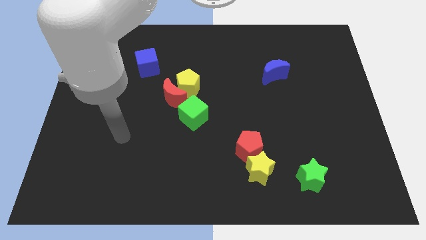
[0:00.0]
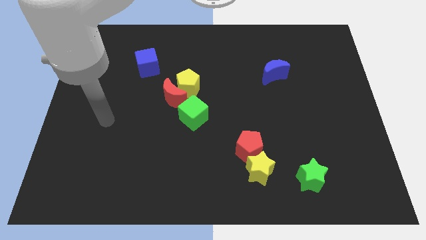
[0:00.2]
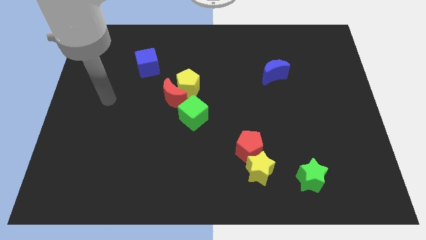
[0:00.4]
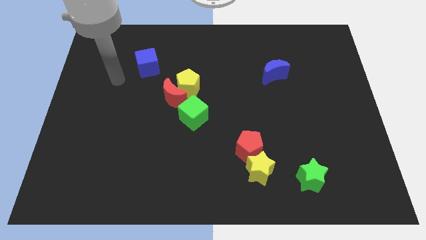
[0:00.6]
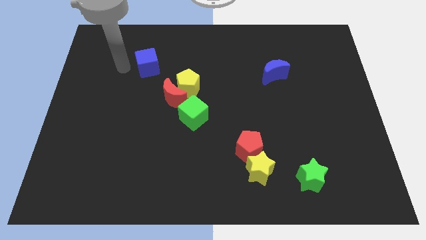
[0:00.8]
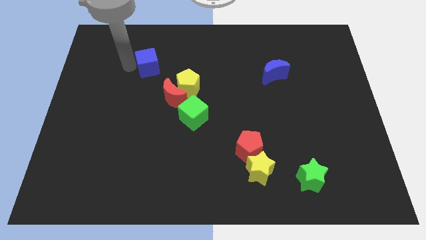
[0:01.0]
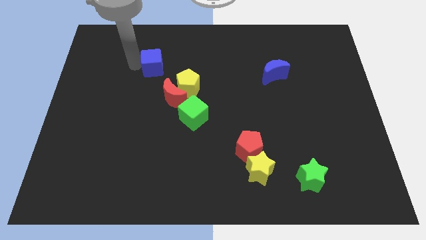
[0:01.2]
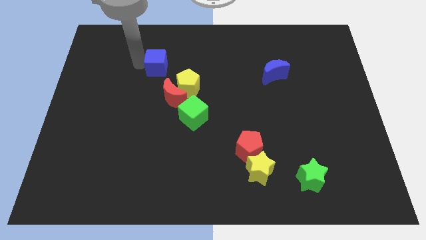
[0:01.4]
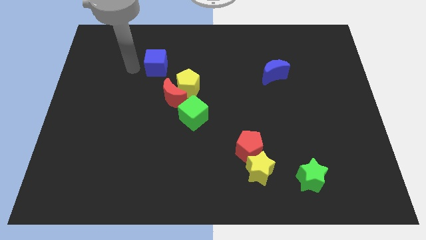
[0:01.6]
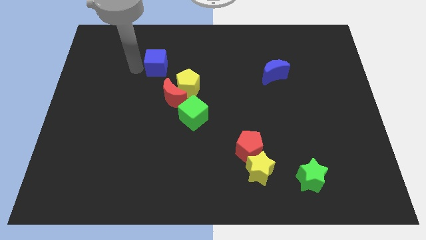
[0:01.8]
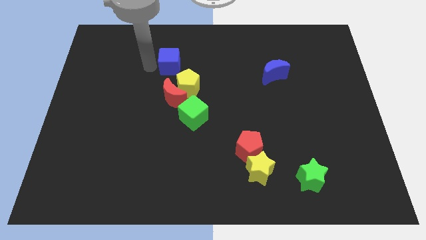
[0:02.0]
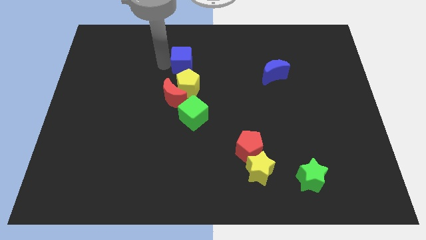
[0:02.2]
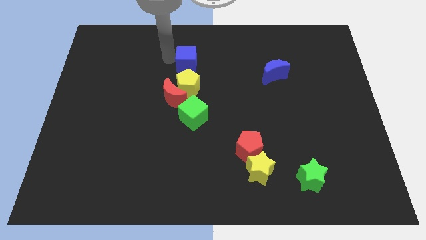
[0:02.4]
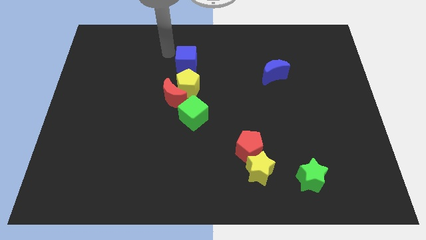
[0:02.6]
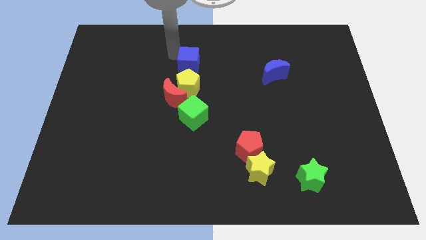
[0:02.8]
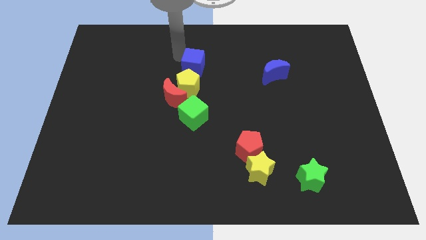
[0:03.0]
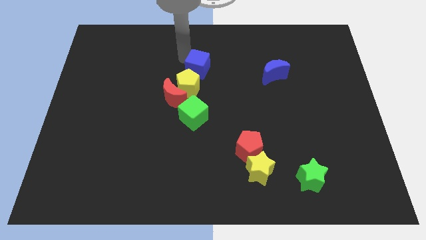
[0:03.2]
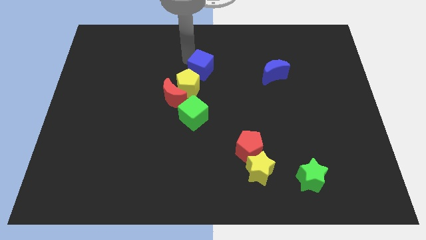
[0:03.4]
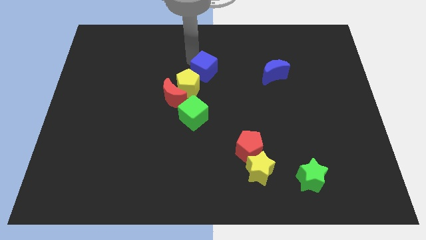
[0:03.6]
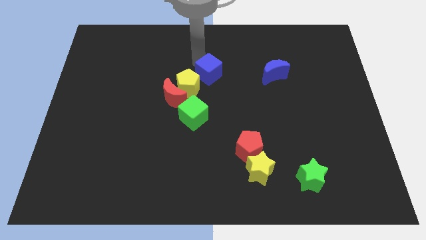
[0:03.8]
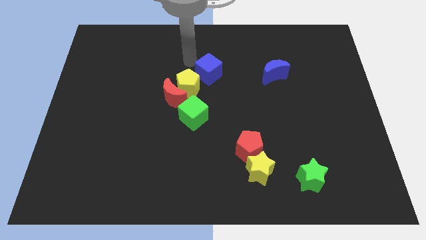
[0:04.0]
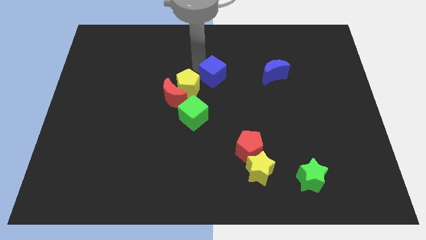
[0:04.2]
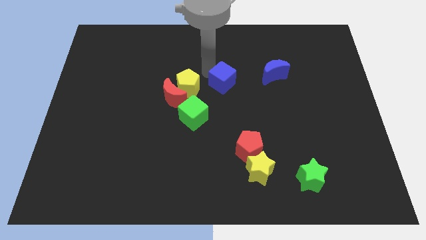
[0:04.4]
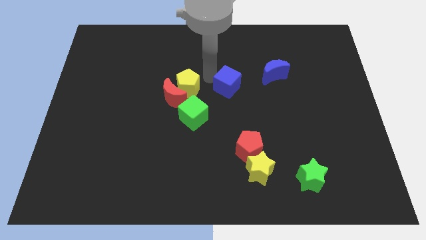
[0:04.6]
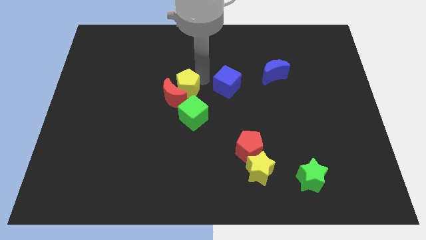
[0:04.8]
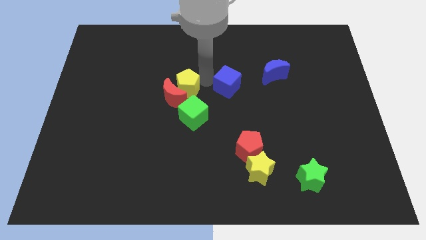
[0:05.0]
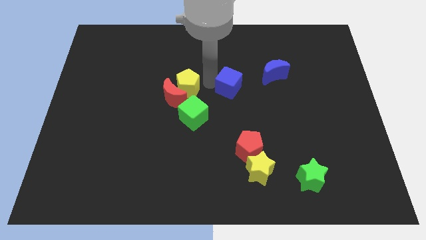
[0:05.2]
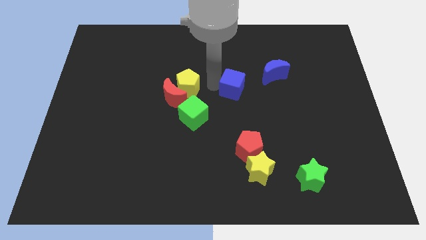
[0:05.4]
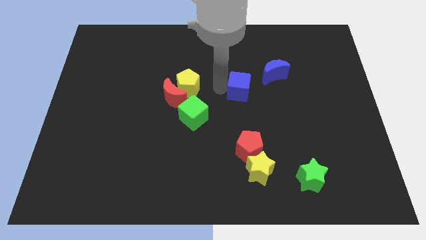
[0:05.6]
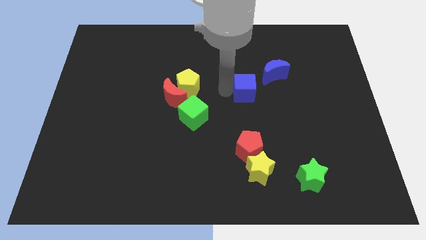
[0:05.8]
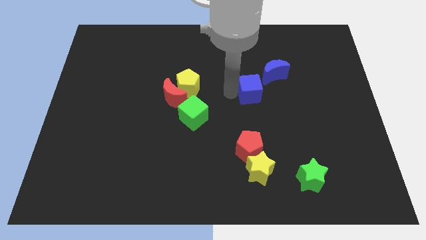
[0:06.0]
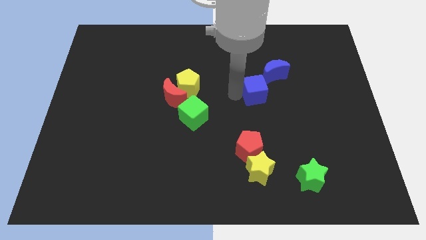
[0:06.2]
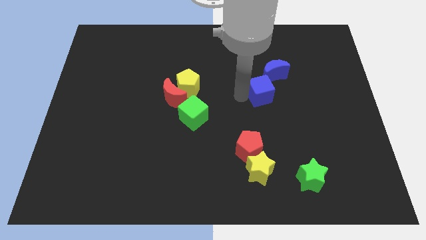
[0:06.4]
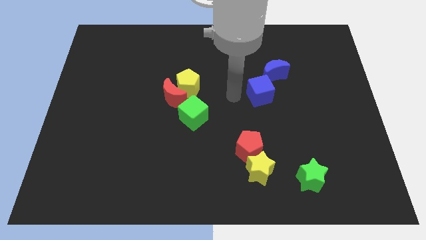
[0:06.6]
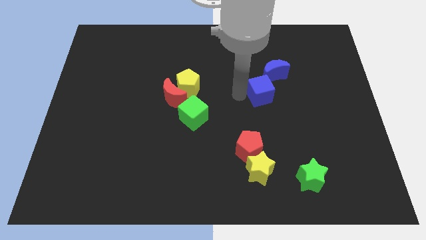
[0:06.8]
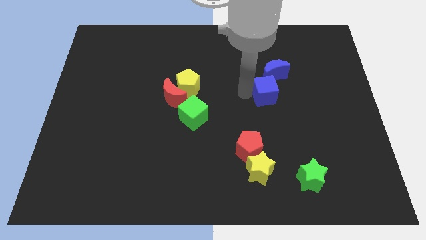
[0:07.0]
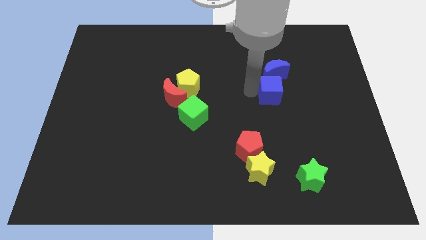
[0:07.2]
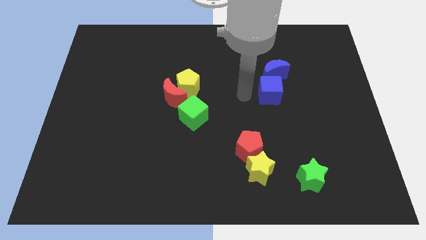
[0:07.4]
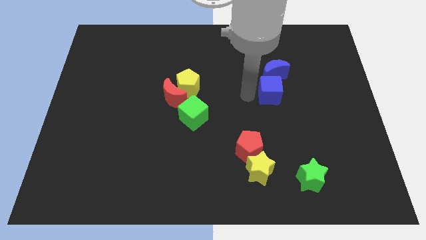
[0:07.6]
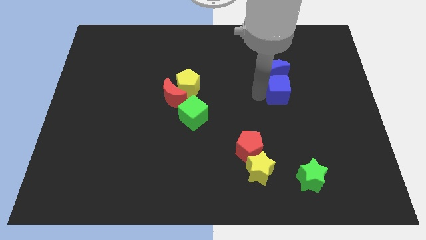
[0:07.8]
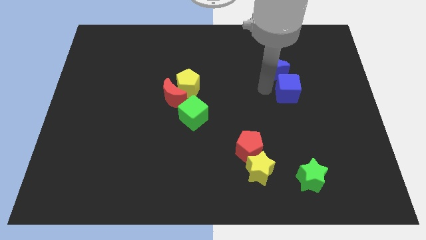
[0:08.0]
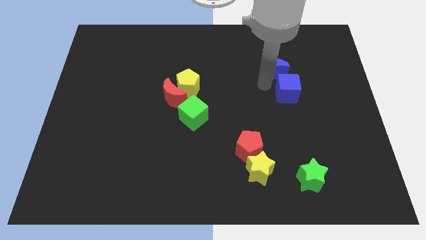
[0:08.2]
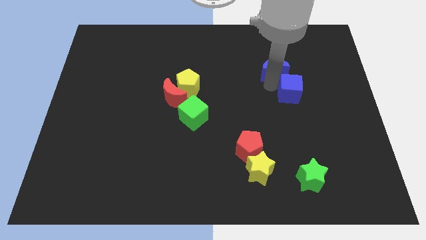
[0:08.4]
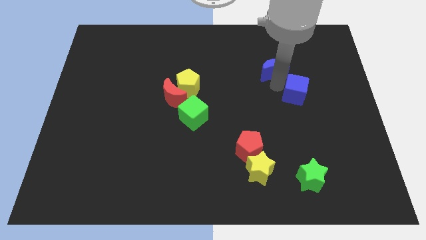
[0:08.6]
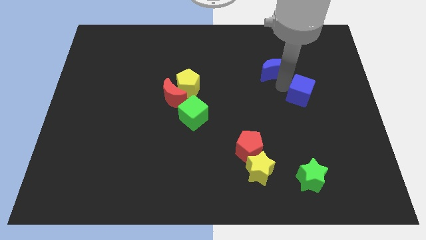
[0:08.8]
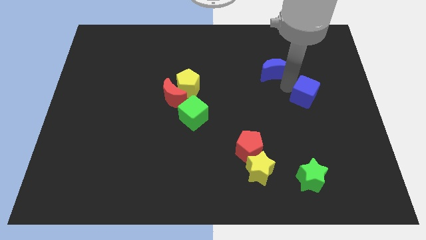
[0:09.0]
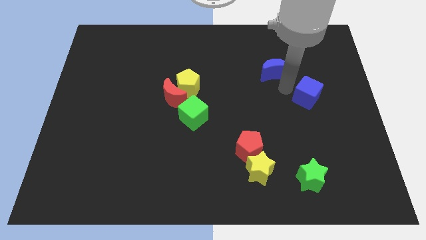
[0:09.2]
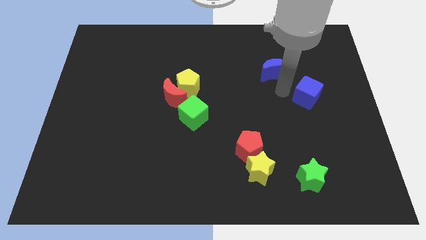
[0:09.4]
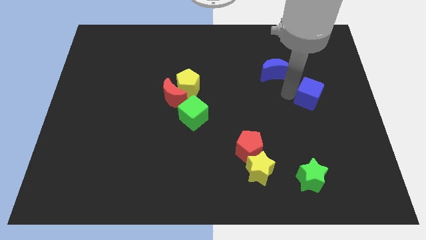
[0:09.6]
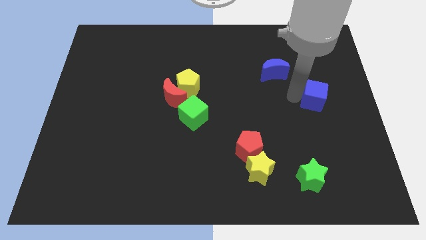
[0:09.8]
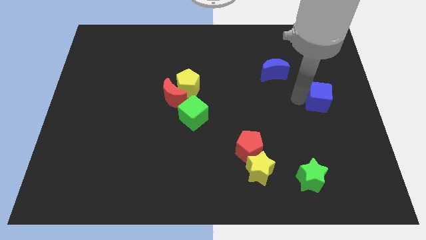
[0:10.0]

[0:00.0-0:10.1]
move the blue cube to the center right

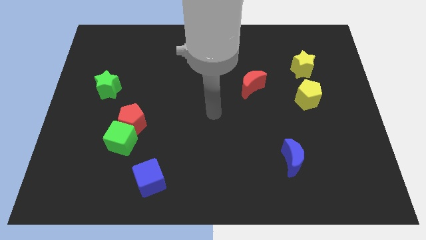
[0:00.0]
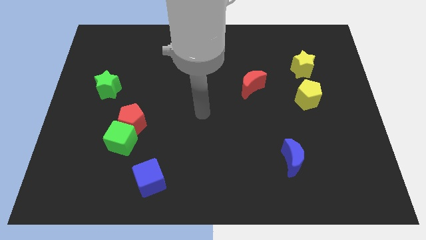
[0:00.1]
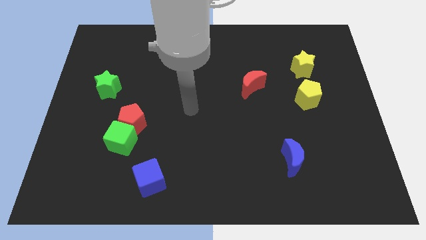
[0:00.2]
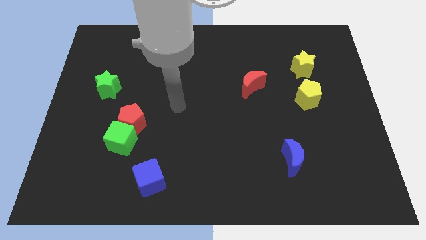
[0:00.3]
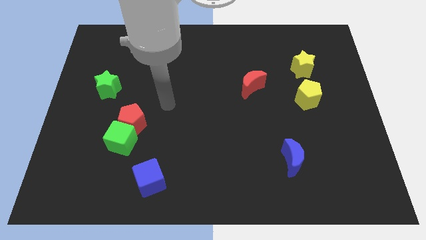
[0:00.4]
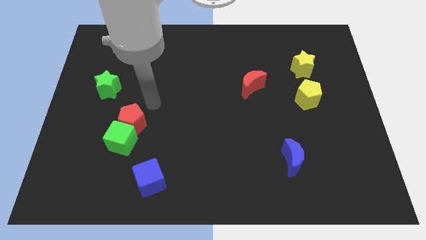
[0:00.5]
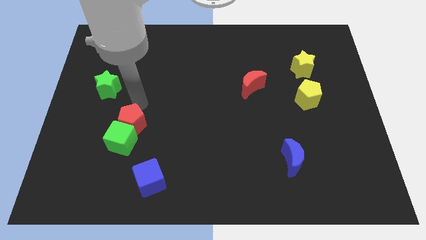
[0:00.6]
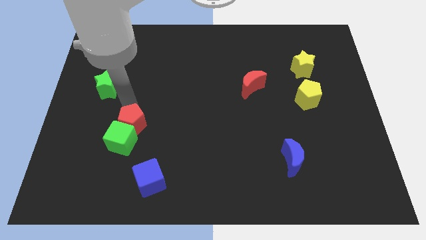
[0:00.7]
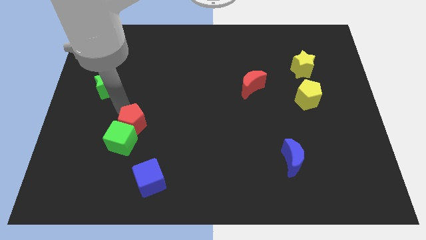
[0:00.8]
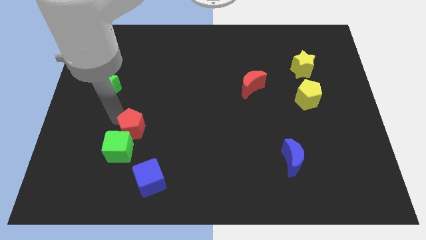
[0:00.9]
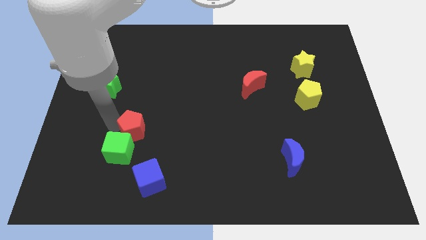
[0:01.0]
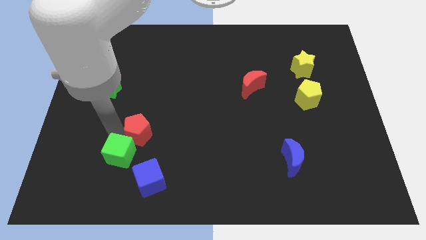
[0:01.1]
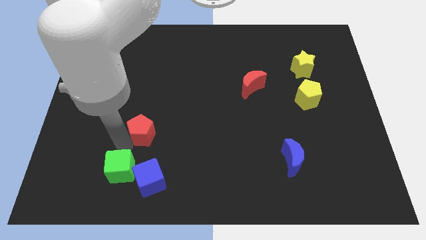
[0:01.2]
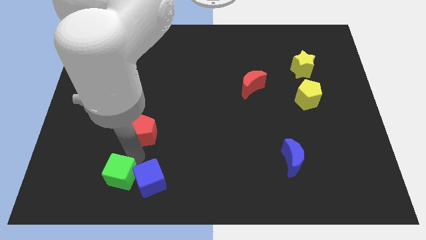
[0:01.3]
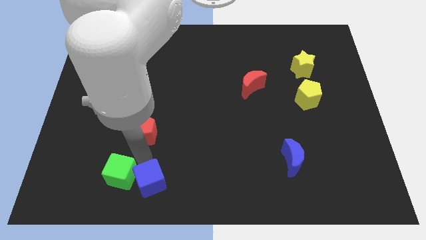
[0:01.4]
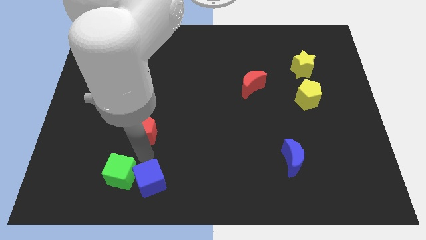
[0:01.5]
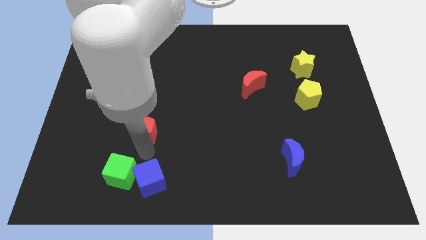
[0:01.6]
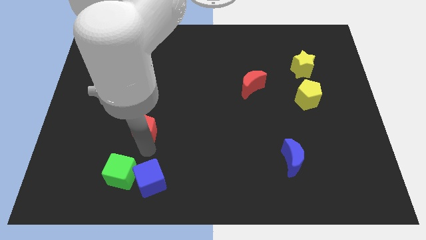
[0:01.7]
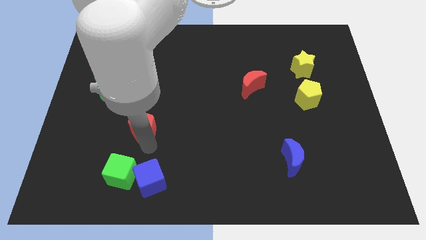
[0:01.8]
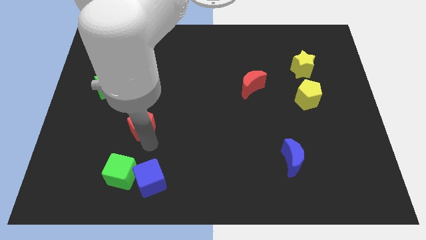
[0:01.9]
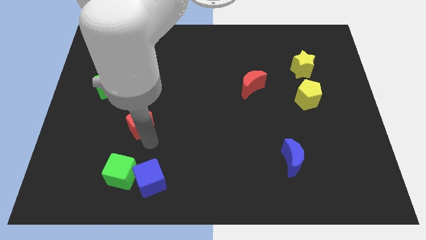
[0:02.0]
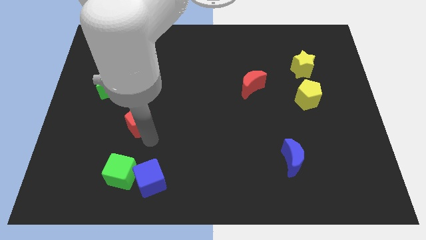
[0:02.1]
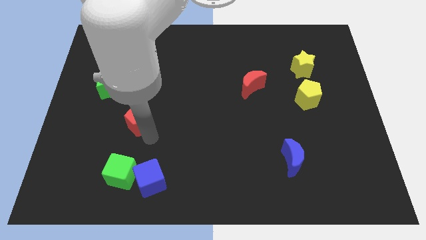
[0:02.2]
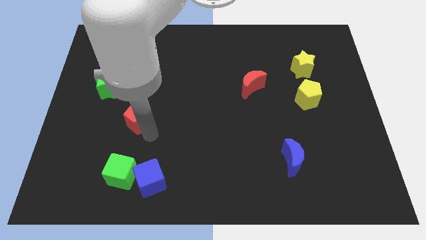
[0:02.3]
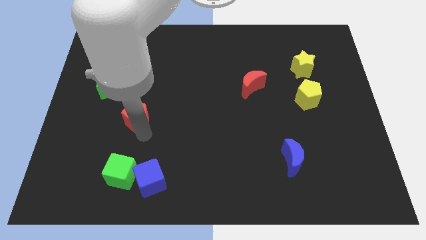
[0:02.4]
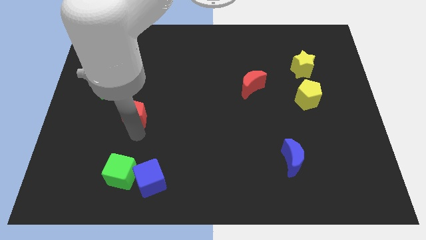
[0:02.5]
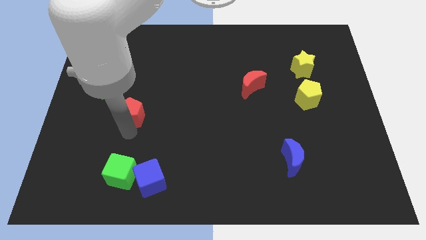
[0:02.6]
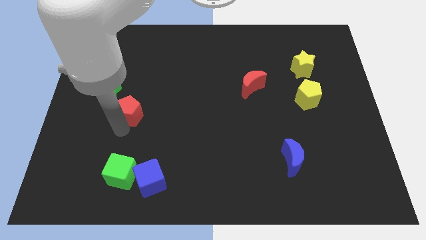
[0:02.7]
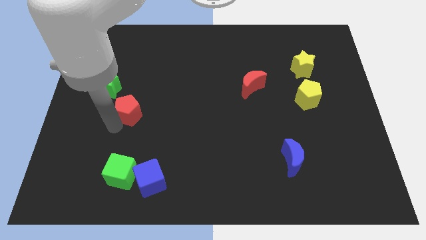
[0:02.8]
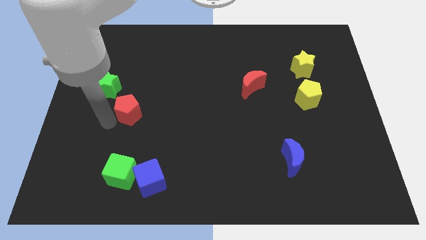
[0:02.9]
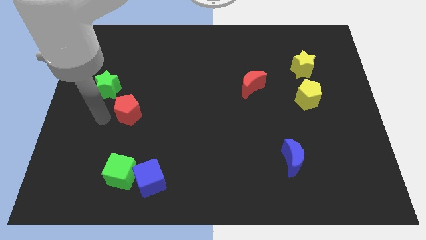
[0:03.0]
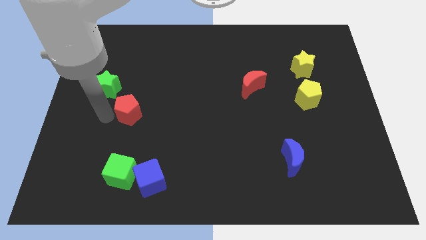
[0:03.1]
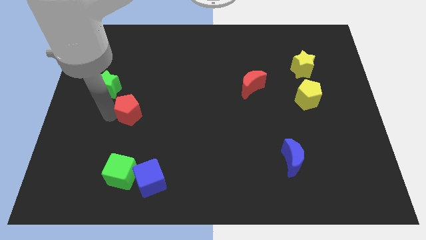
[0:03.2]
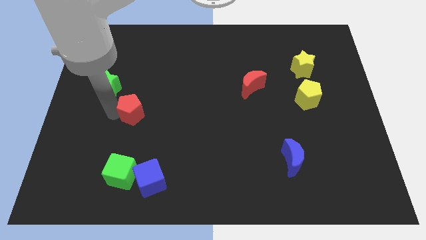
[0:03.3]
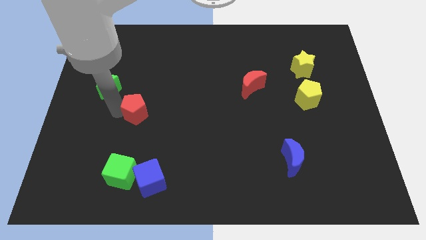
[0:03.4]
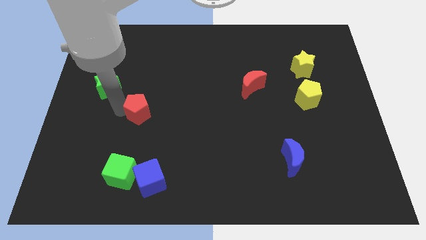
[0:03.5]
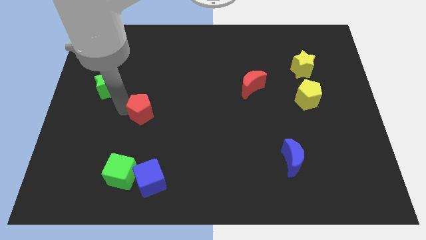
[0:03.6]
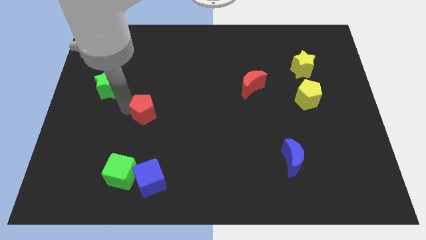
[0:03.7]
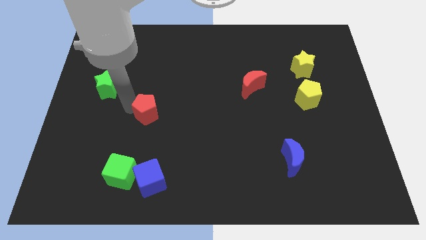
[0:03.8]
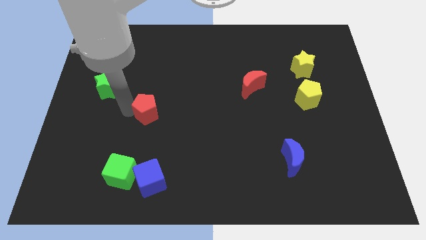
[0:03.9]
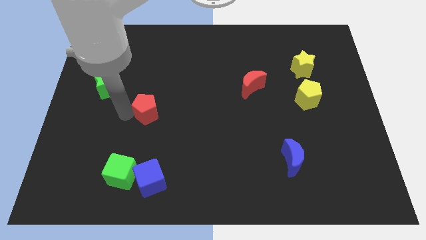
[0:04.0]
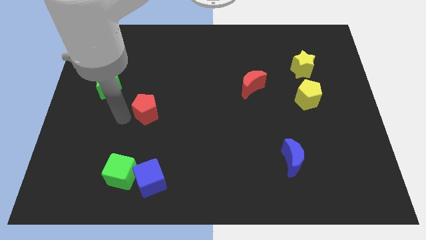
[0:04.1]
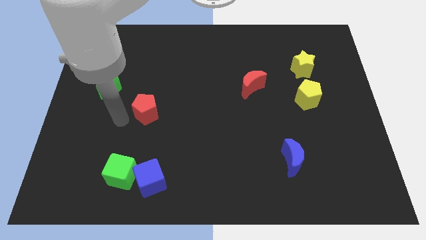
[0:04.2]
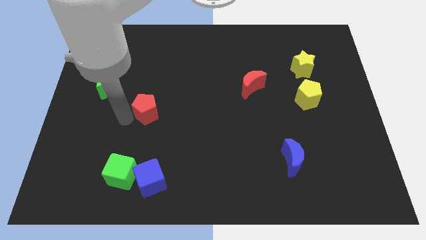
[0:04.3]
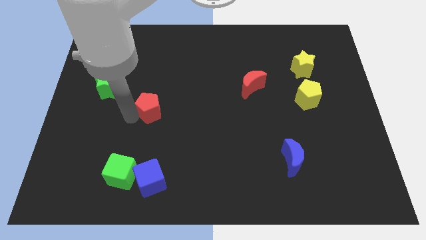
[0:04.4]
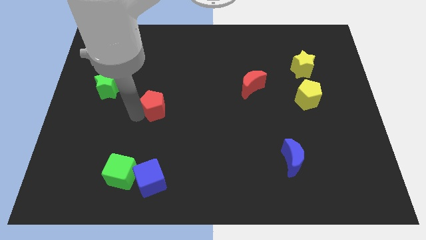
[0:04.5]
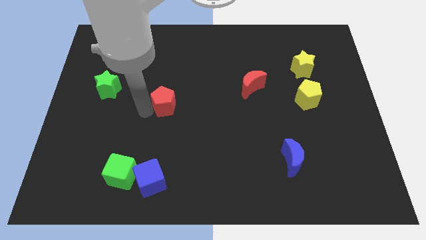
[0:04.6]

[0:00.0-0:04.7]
slide the red pentagon to the middle
